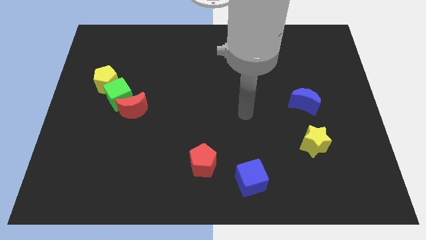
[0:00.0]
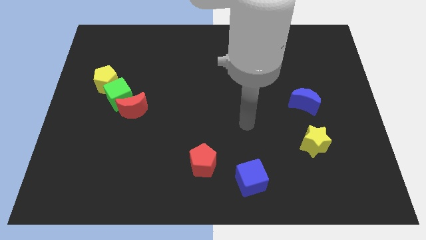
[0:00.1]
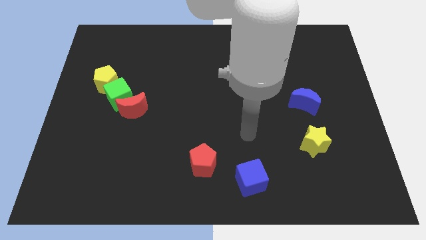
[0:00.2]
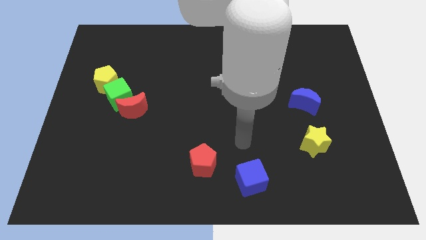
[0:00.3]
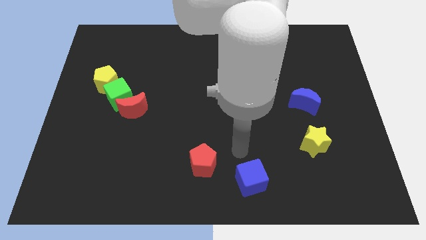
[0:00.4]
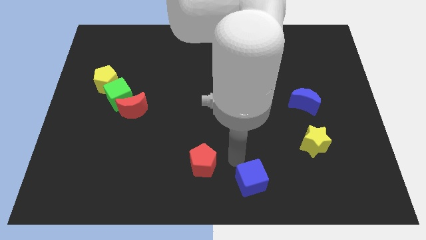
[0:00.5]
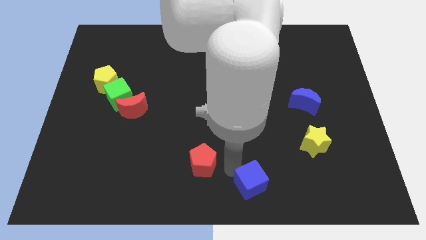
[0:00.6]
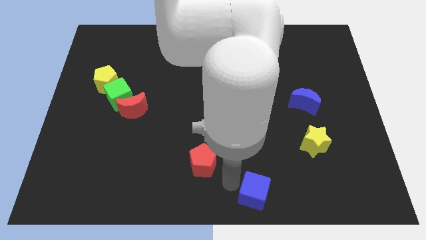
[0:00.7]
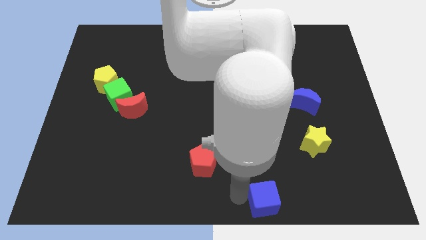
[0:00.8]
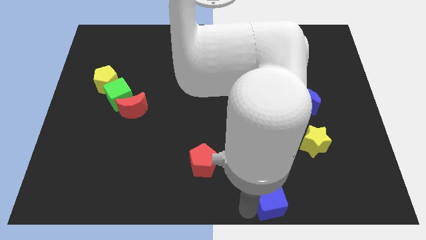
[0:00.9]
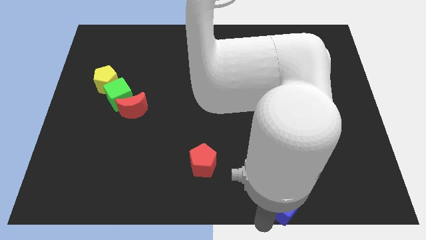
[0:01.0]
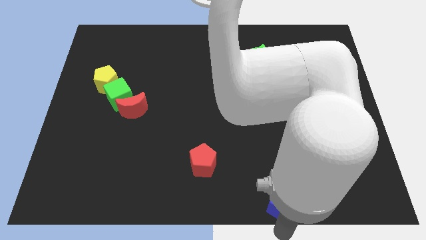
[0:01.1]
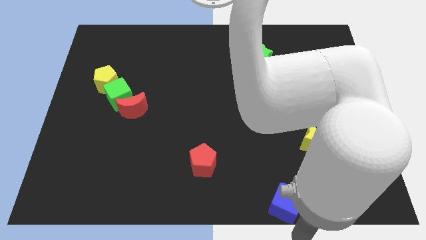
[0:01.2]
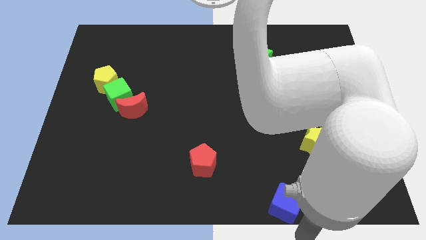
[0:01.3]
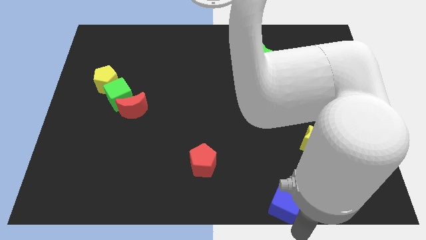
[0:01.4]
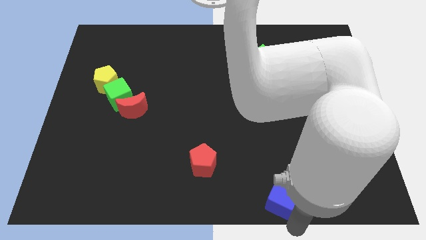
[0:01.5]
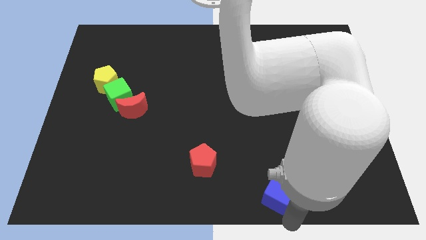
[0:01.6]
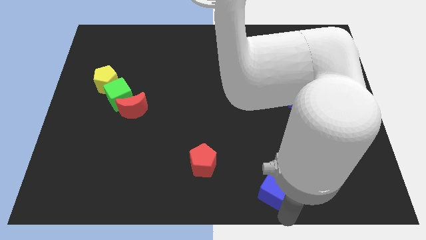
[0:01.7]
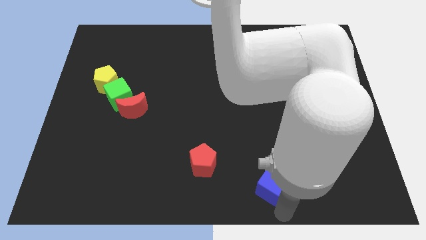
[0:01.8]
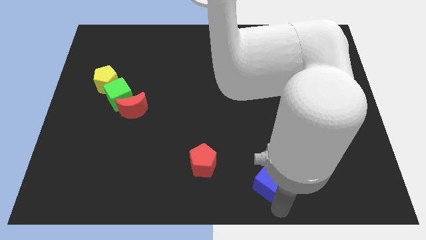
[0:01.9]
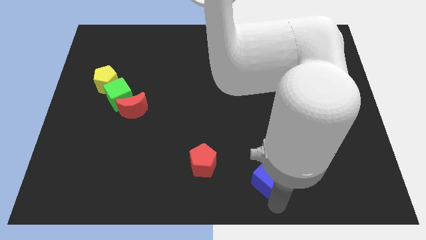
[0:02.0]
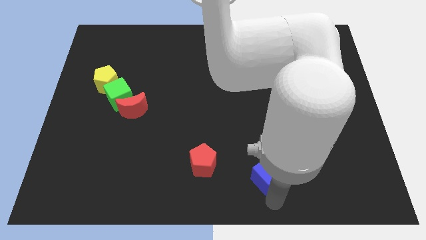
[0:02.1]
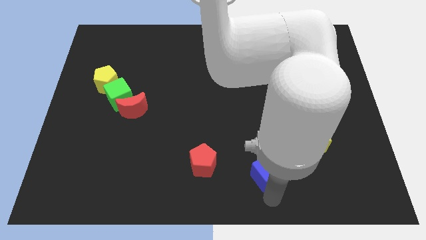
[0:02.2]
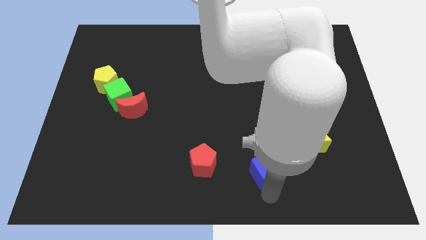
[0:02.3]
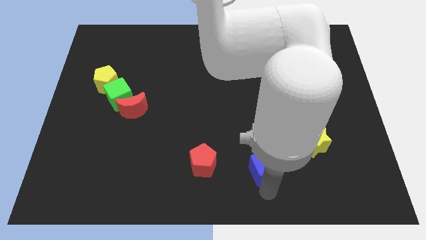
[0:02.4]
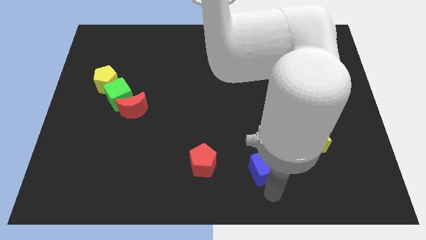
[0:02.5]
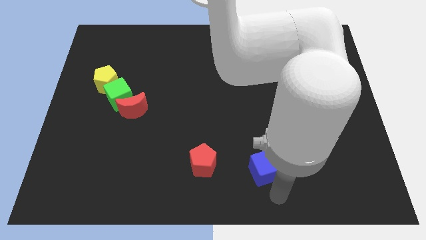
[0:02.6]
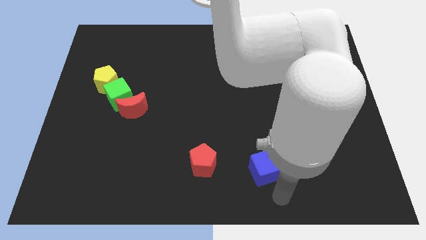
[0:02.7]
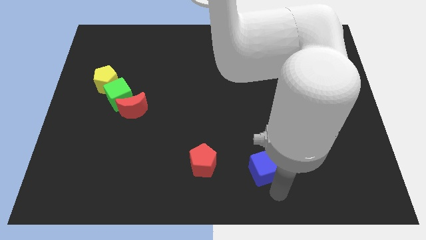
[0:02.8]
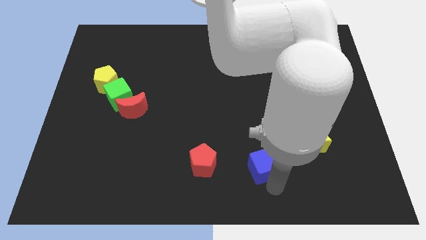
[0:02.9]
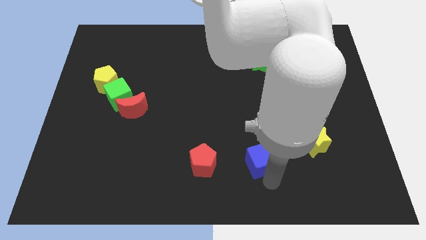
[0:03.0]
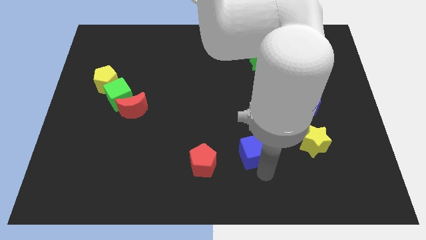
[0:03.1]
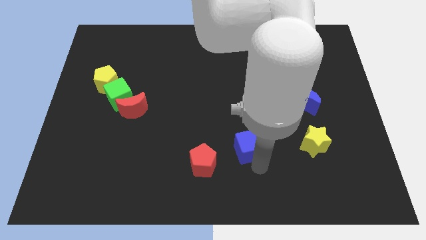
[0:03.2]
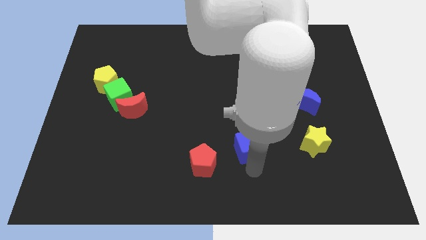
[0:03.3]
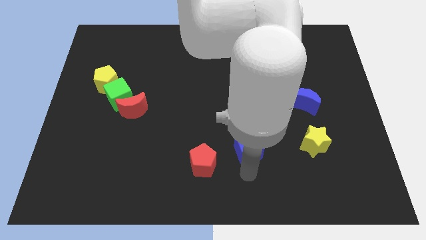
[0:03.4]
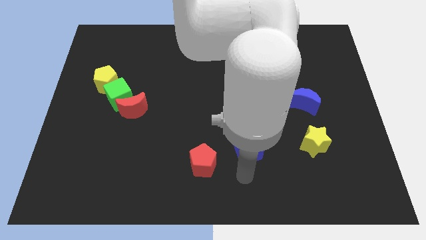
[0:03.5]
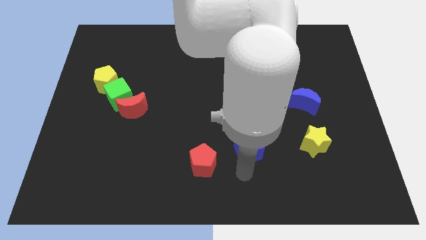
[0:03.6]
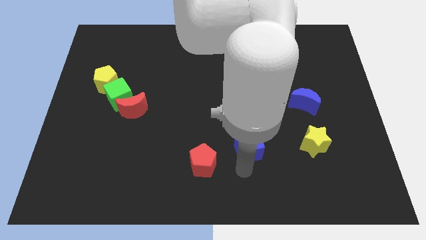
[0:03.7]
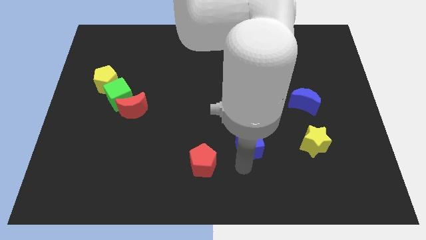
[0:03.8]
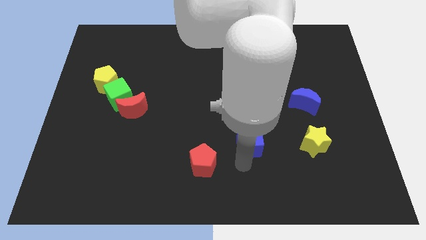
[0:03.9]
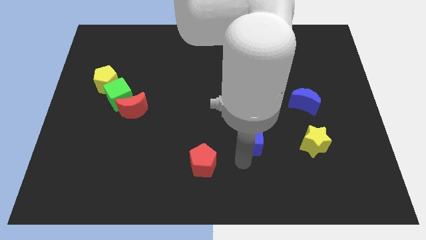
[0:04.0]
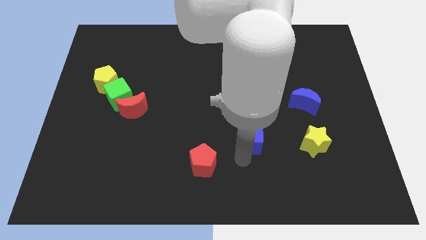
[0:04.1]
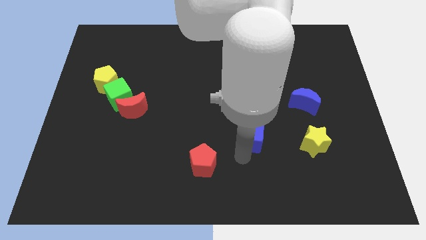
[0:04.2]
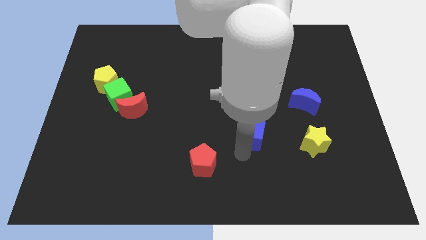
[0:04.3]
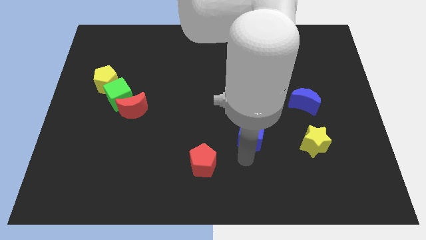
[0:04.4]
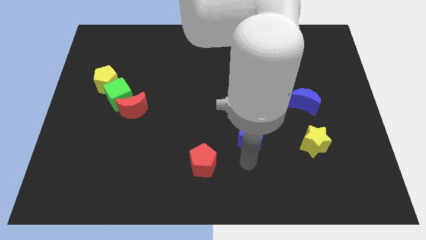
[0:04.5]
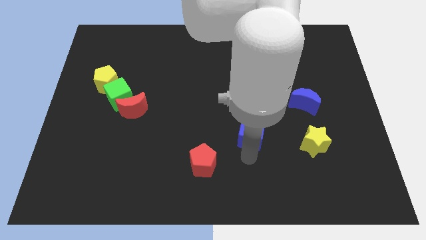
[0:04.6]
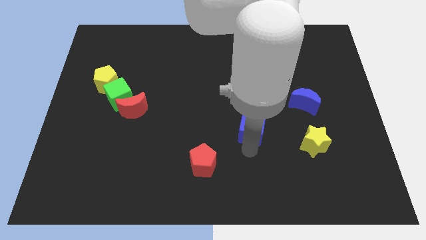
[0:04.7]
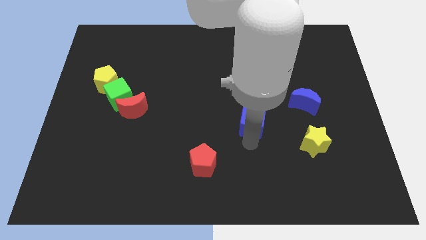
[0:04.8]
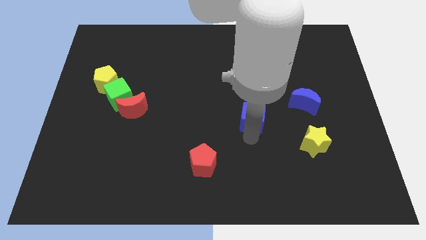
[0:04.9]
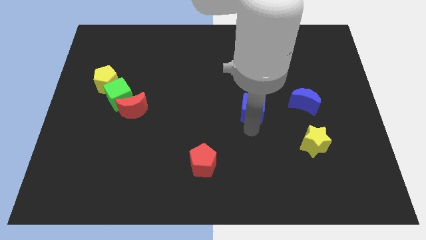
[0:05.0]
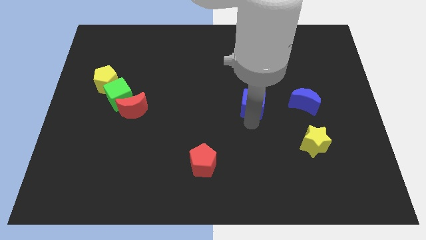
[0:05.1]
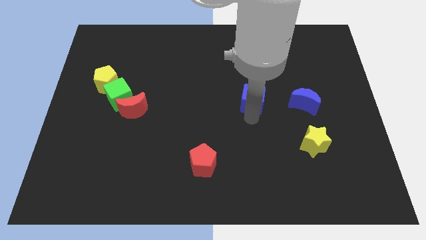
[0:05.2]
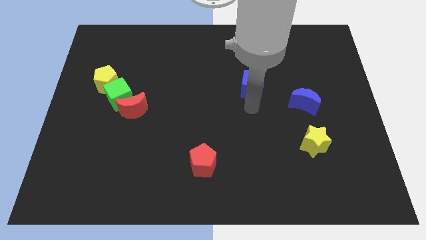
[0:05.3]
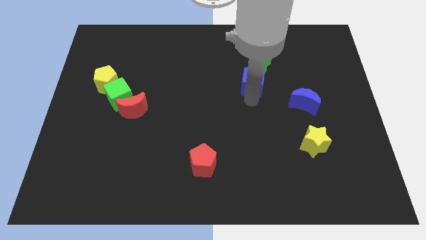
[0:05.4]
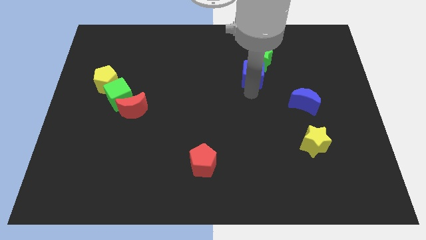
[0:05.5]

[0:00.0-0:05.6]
push the blue cube to the green star
